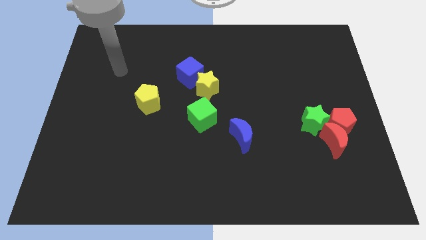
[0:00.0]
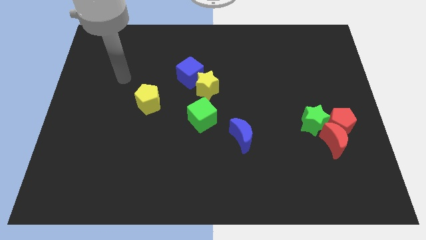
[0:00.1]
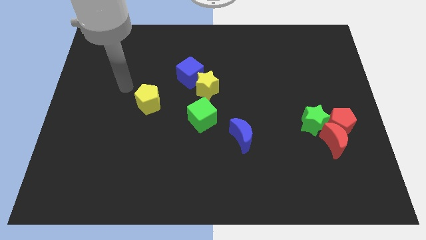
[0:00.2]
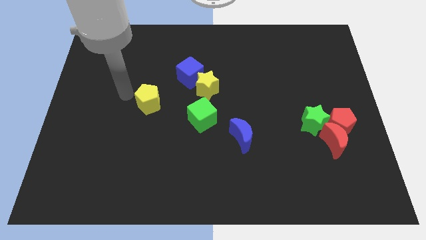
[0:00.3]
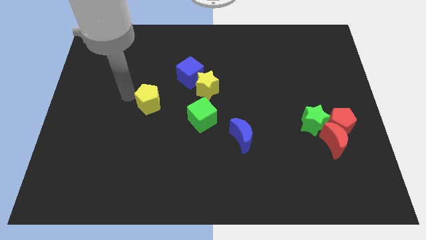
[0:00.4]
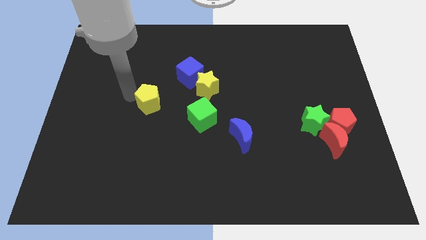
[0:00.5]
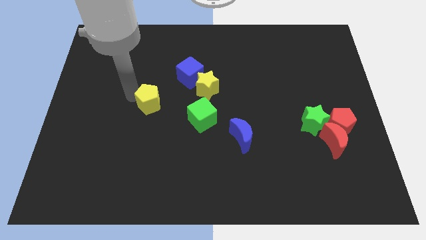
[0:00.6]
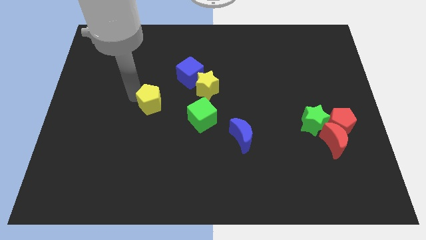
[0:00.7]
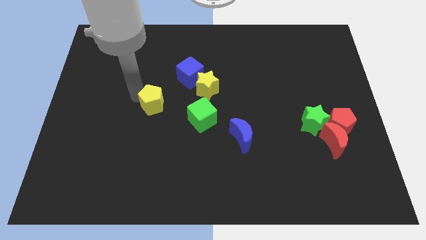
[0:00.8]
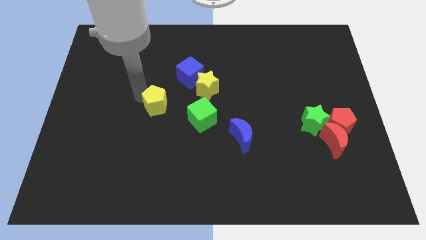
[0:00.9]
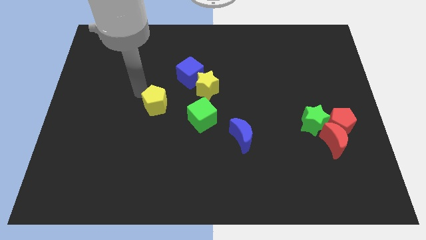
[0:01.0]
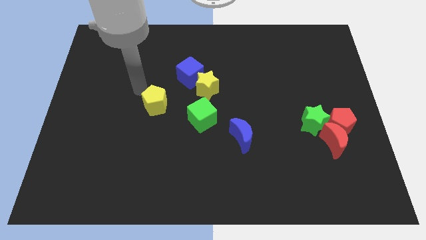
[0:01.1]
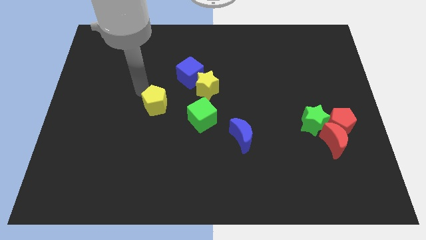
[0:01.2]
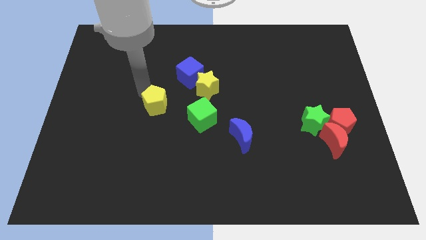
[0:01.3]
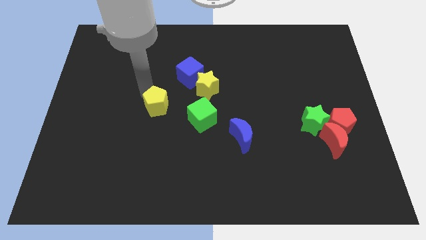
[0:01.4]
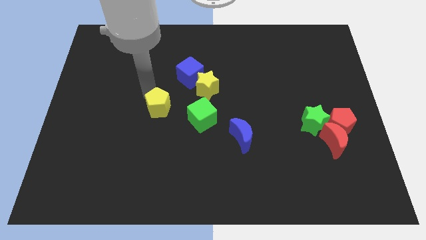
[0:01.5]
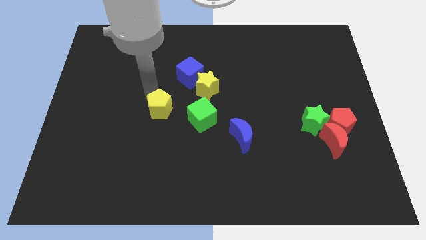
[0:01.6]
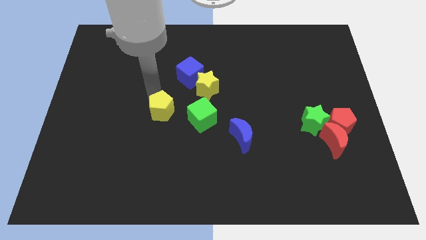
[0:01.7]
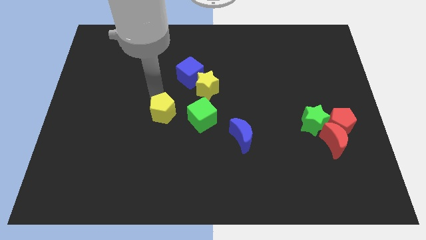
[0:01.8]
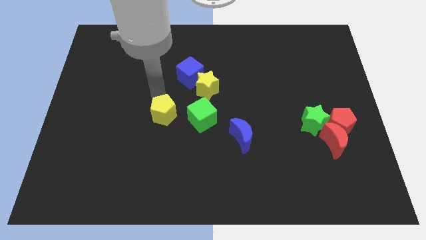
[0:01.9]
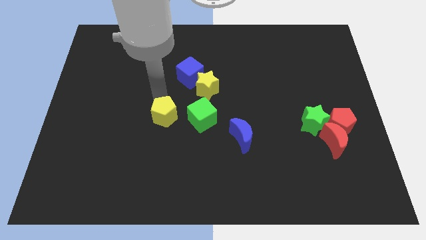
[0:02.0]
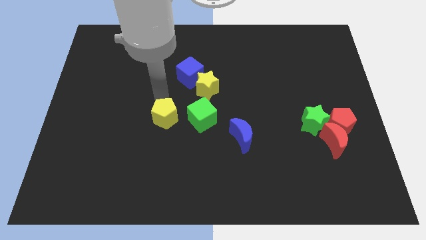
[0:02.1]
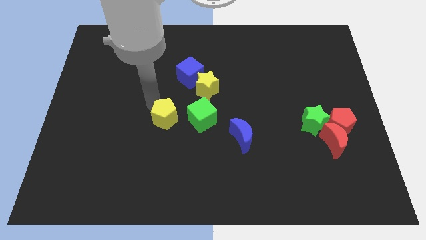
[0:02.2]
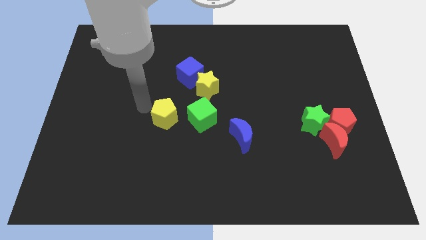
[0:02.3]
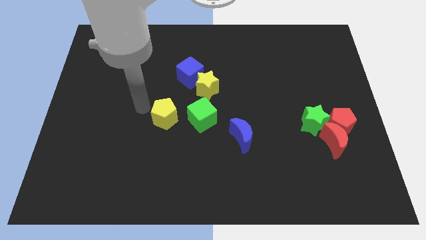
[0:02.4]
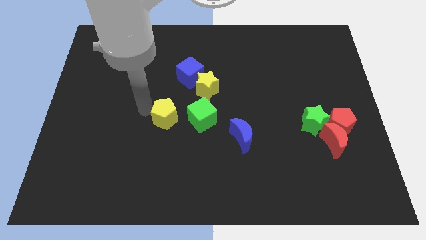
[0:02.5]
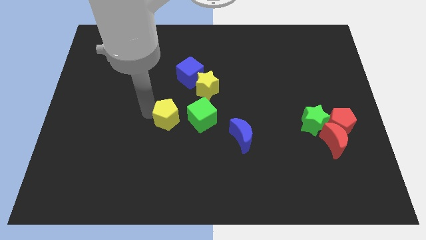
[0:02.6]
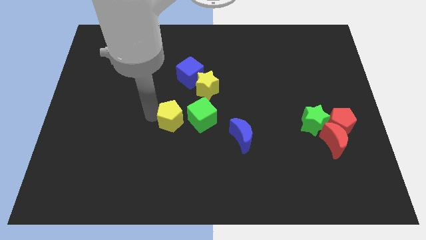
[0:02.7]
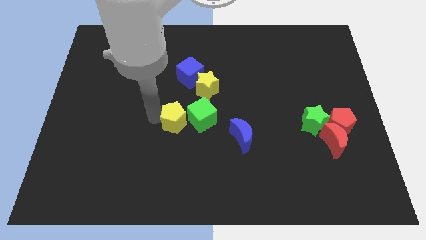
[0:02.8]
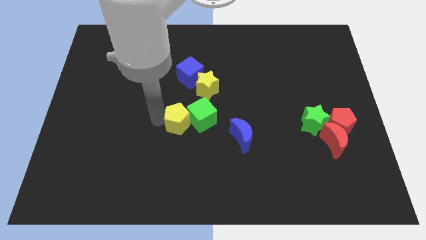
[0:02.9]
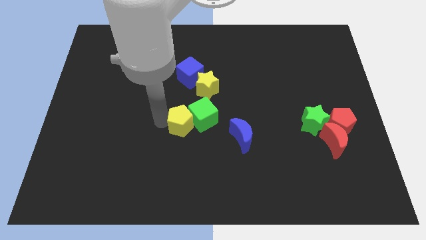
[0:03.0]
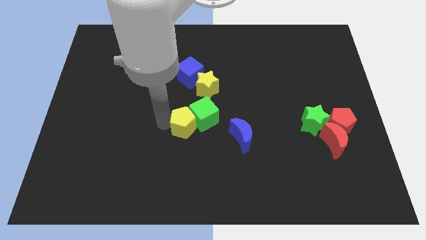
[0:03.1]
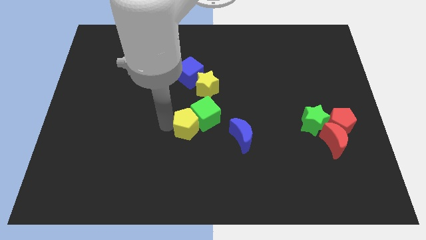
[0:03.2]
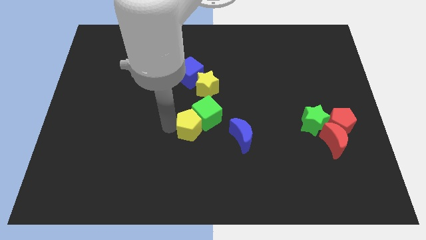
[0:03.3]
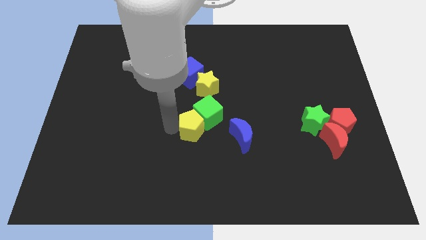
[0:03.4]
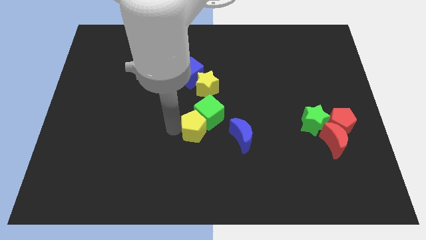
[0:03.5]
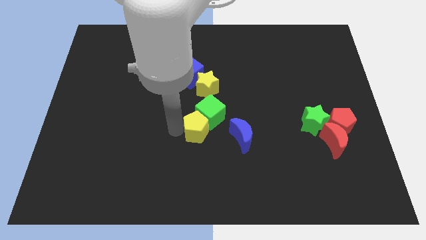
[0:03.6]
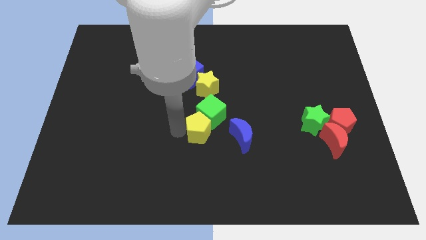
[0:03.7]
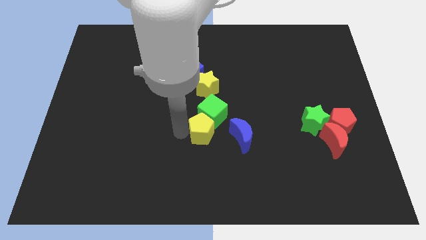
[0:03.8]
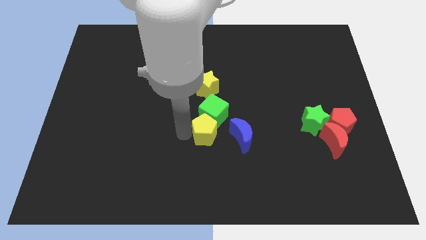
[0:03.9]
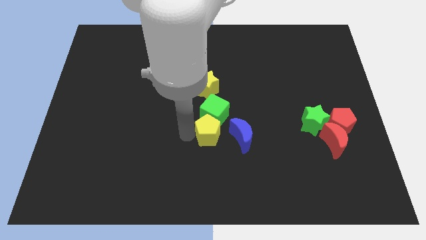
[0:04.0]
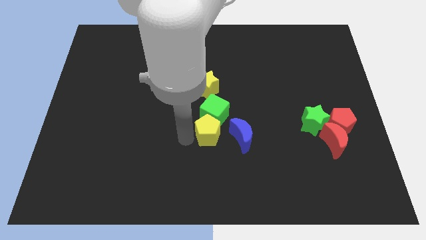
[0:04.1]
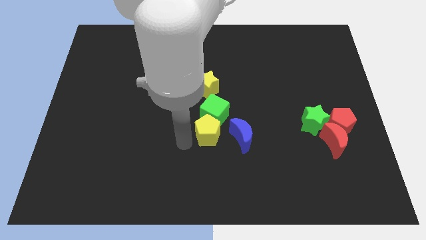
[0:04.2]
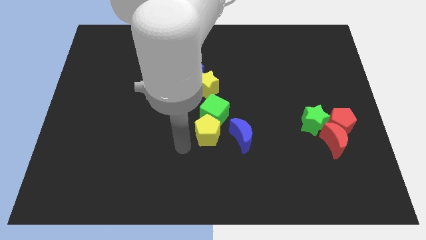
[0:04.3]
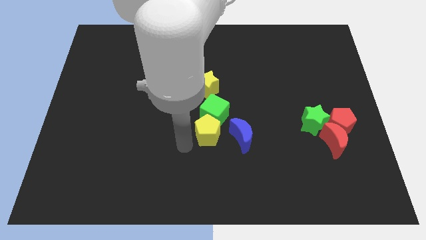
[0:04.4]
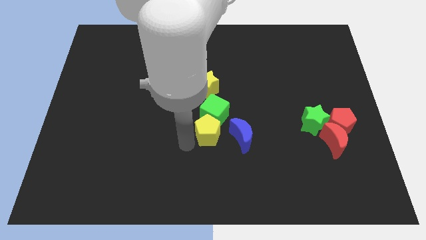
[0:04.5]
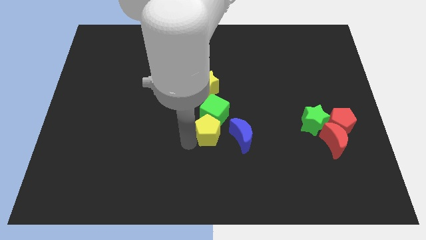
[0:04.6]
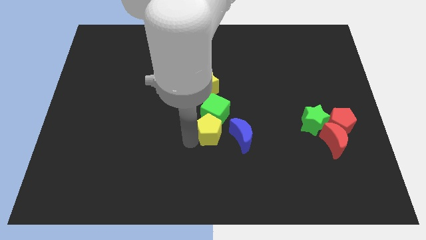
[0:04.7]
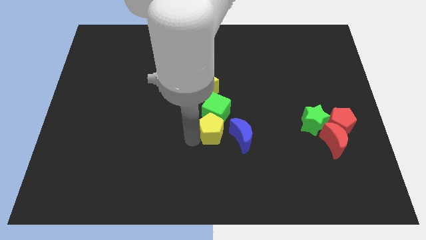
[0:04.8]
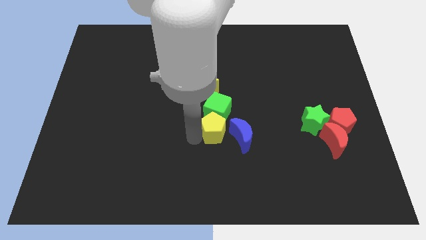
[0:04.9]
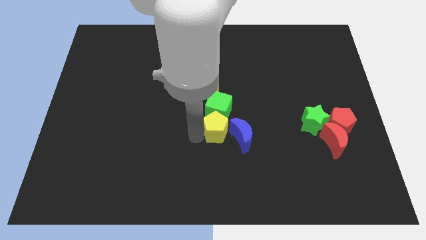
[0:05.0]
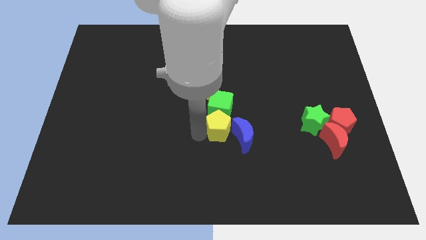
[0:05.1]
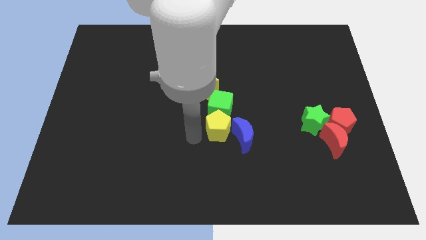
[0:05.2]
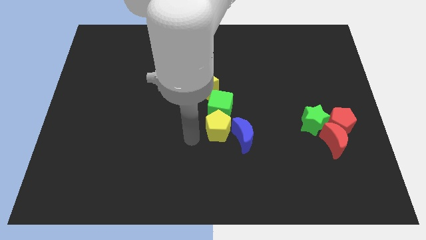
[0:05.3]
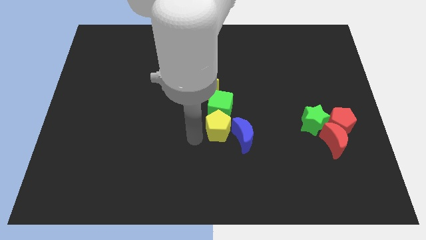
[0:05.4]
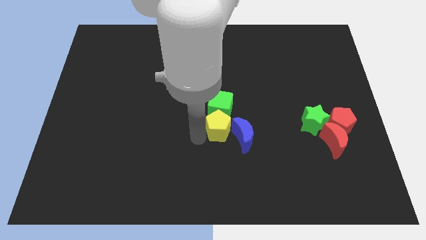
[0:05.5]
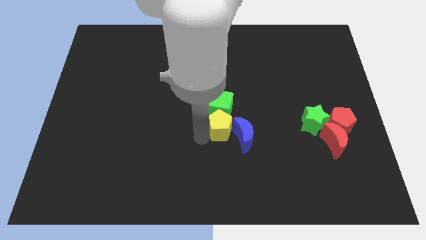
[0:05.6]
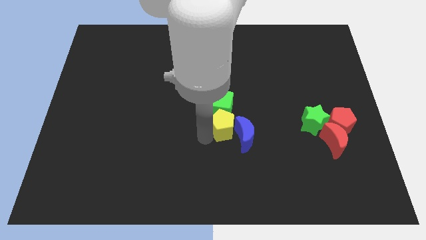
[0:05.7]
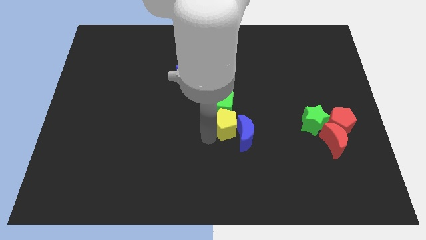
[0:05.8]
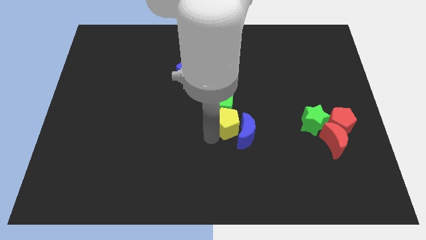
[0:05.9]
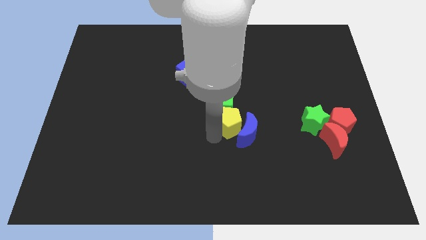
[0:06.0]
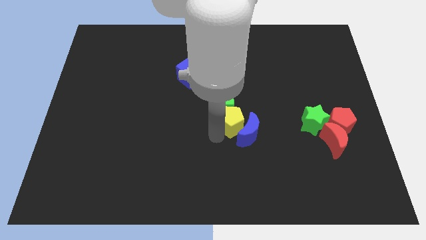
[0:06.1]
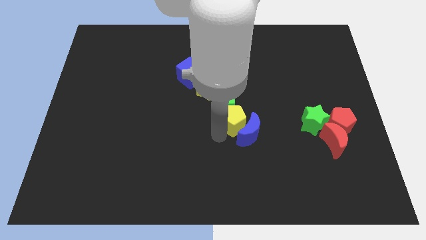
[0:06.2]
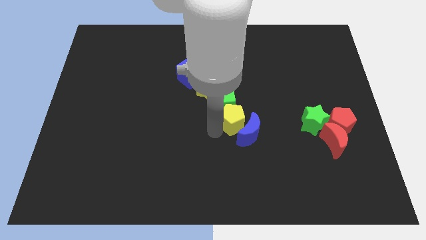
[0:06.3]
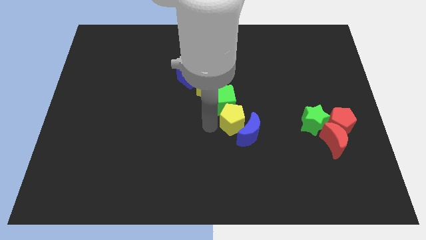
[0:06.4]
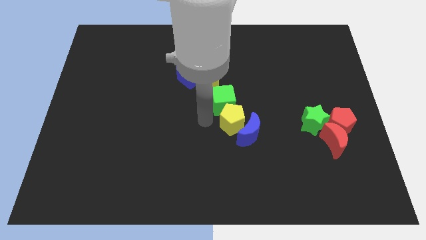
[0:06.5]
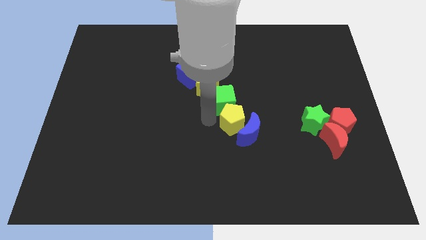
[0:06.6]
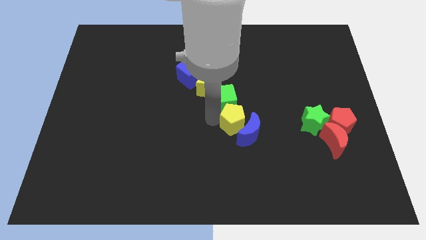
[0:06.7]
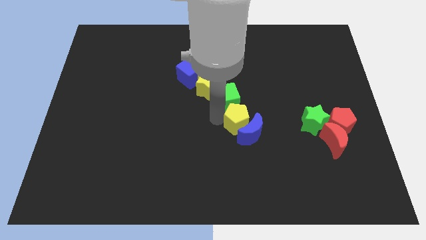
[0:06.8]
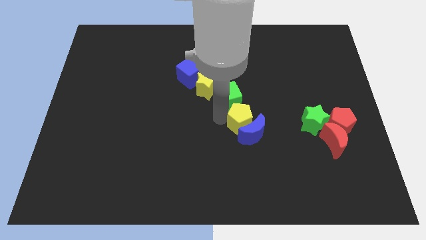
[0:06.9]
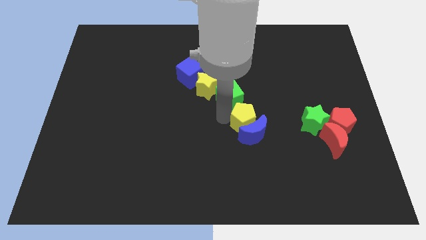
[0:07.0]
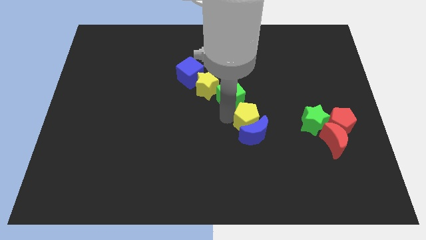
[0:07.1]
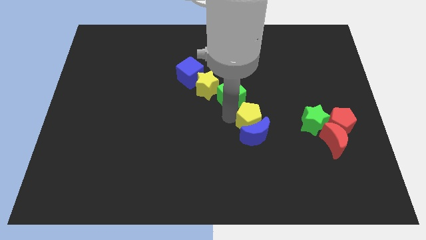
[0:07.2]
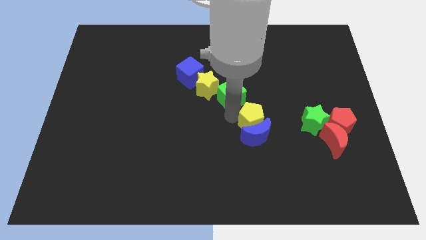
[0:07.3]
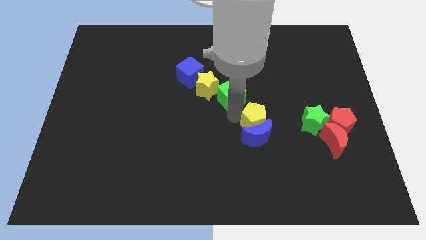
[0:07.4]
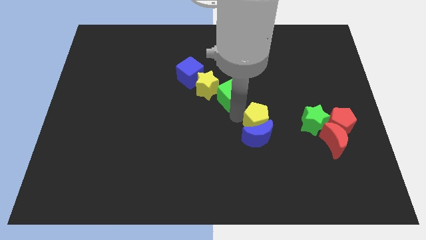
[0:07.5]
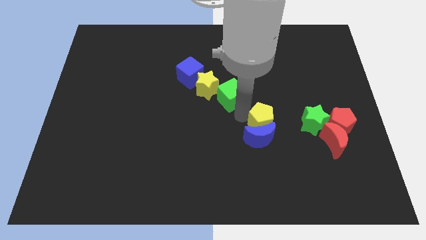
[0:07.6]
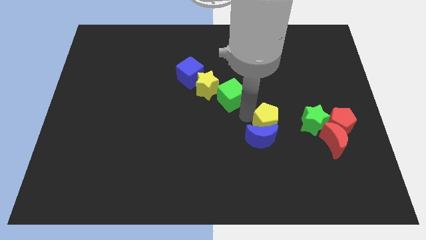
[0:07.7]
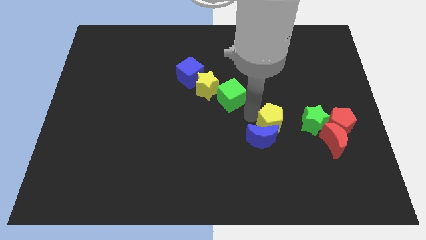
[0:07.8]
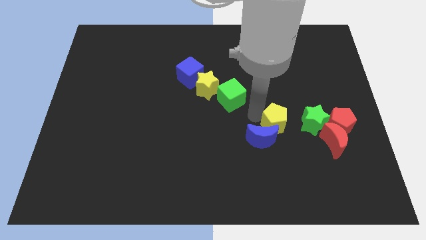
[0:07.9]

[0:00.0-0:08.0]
put the yellow pentagon right of the blue moon
